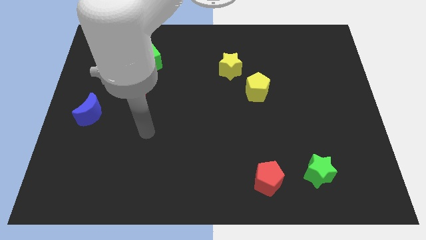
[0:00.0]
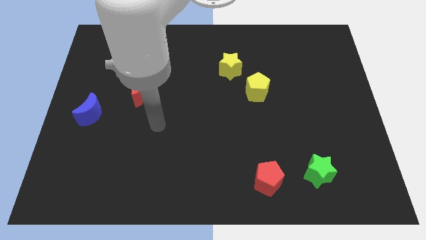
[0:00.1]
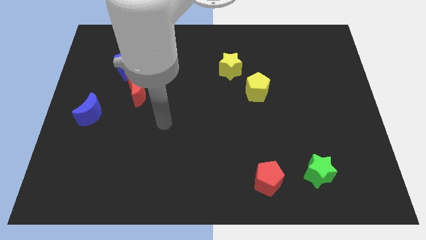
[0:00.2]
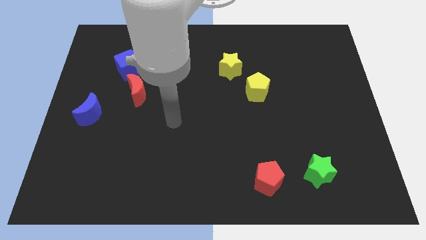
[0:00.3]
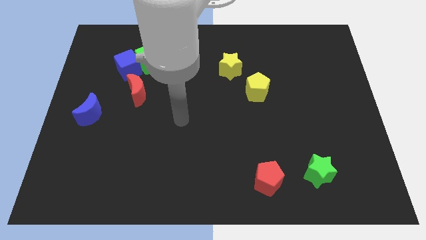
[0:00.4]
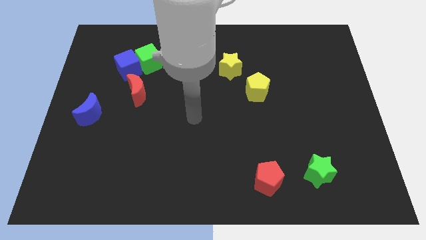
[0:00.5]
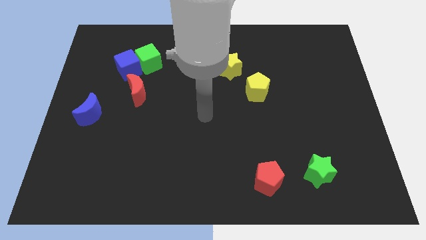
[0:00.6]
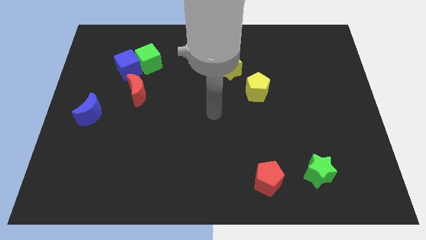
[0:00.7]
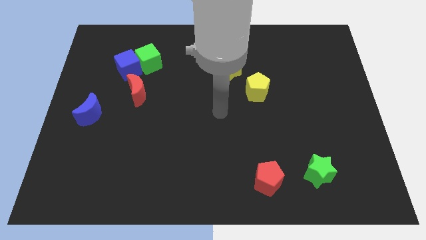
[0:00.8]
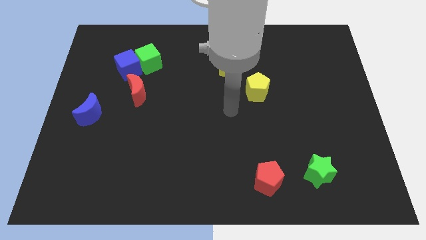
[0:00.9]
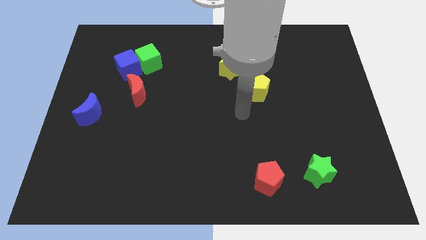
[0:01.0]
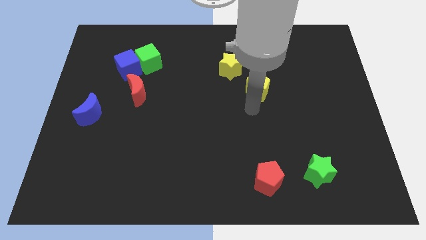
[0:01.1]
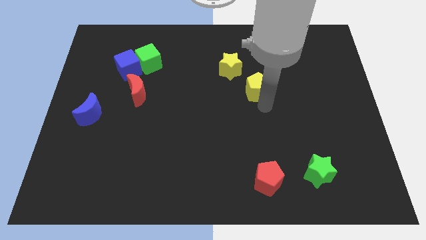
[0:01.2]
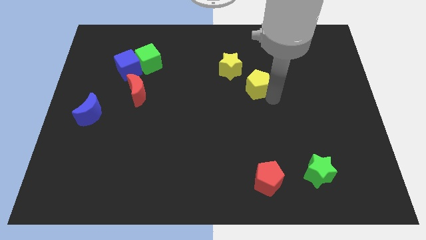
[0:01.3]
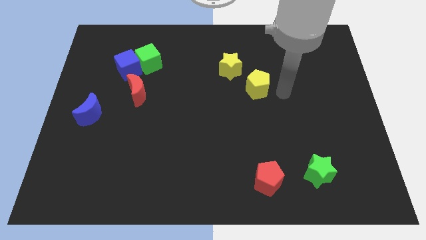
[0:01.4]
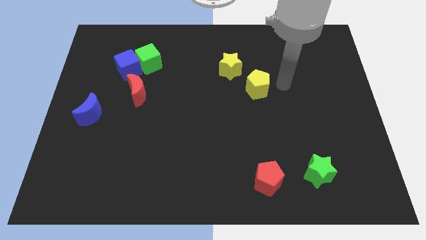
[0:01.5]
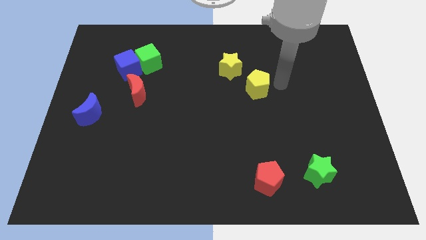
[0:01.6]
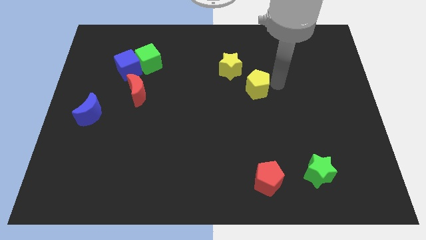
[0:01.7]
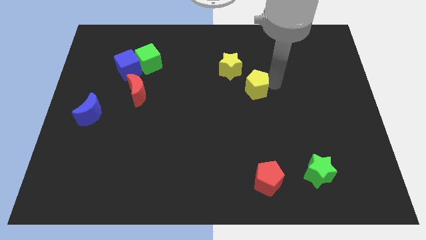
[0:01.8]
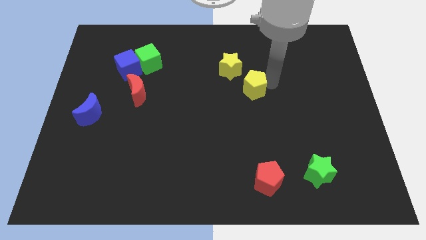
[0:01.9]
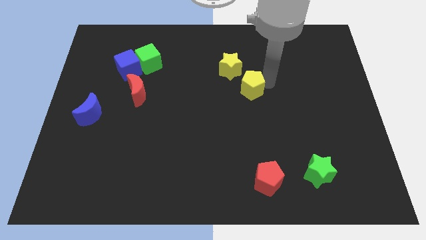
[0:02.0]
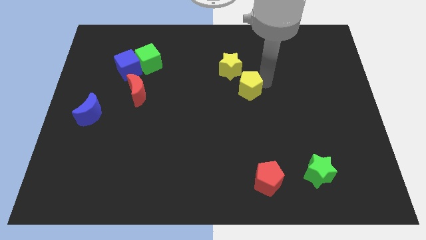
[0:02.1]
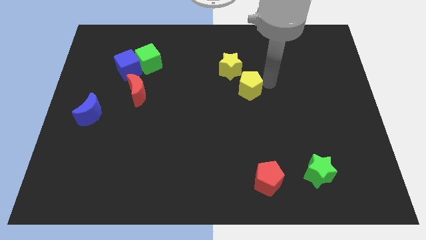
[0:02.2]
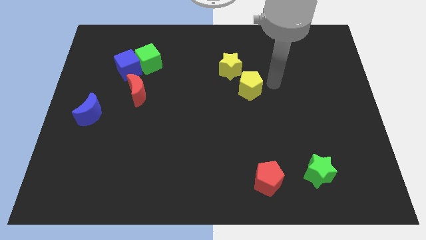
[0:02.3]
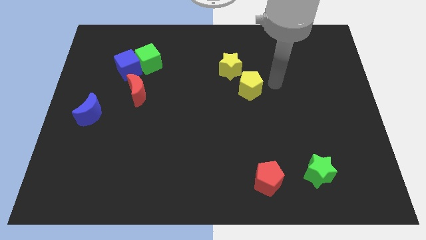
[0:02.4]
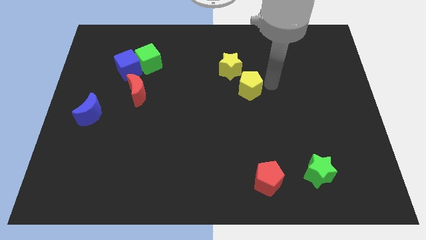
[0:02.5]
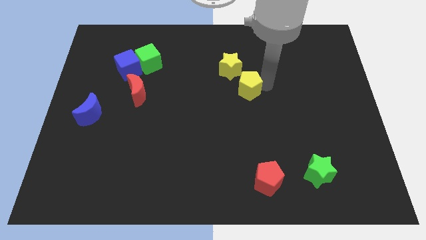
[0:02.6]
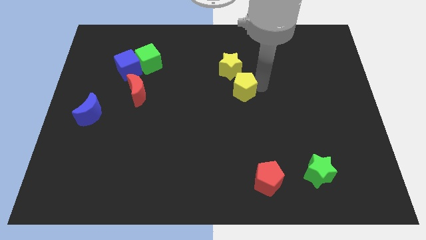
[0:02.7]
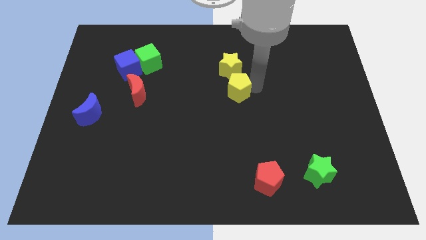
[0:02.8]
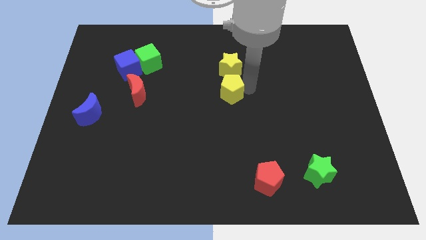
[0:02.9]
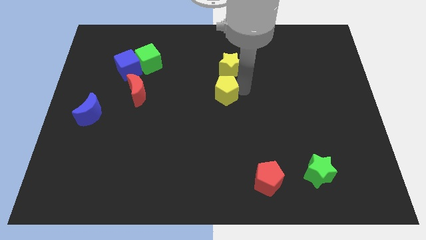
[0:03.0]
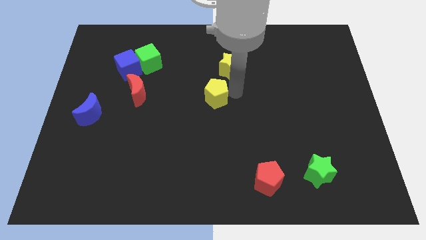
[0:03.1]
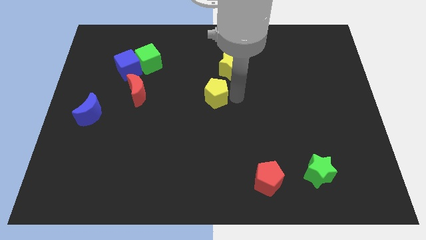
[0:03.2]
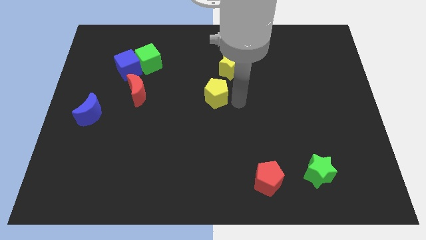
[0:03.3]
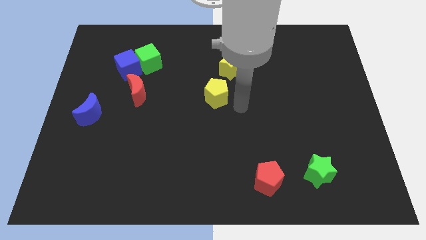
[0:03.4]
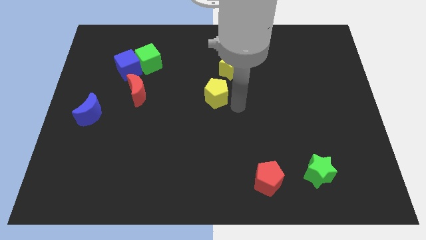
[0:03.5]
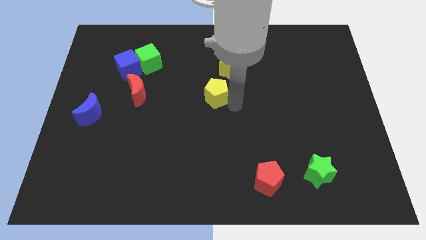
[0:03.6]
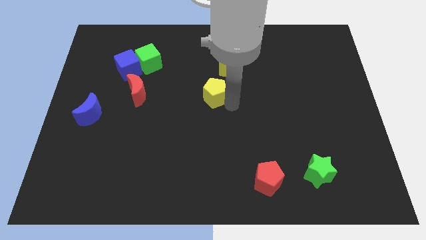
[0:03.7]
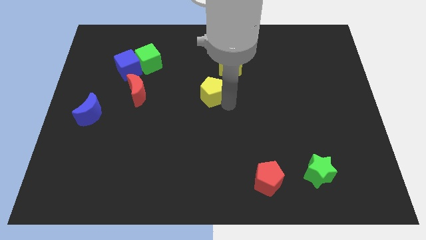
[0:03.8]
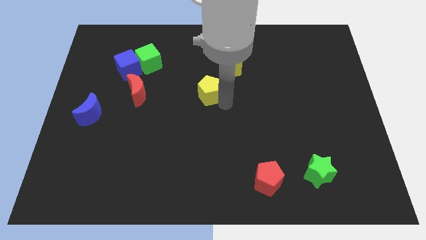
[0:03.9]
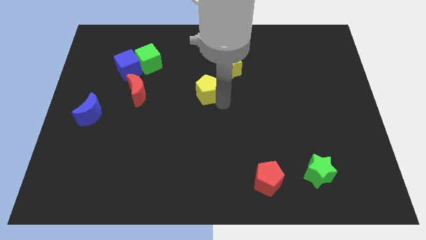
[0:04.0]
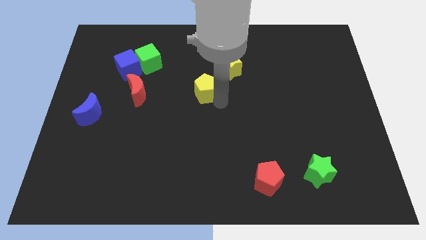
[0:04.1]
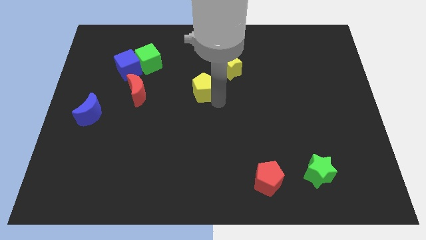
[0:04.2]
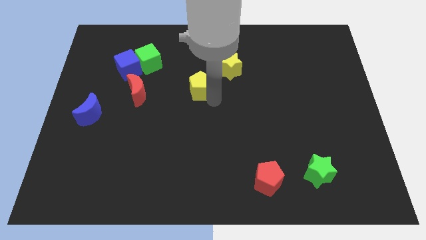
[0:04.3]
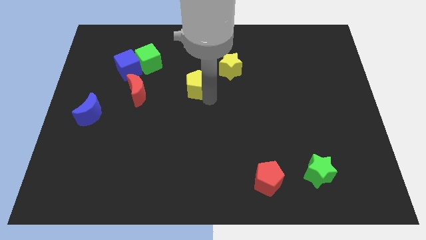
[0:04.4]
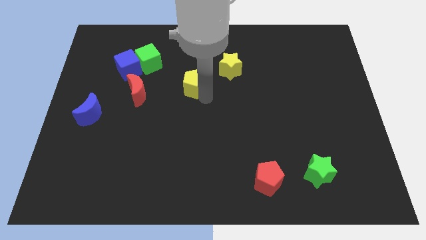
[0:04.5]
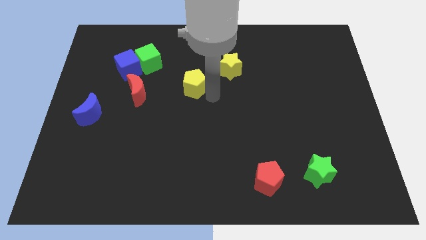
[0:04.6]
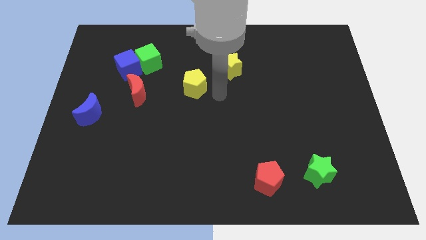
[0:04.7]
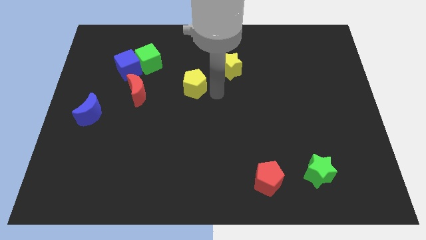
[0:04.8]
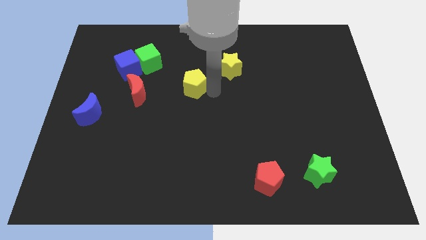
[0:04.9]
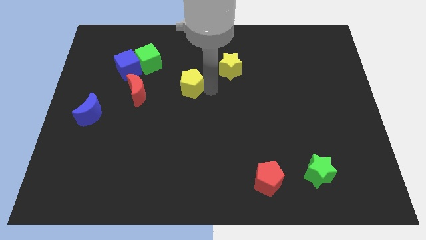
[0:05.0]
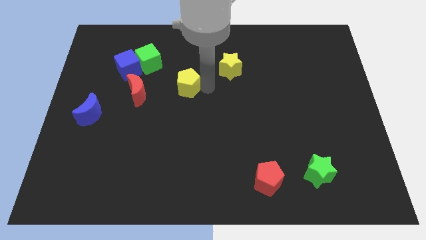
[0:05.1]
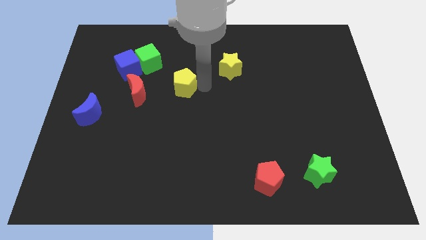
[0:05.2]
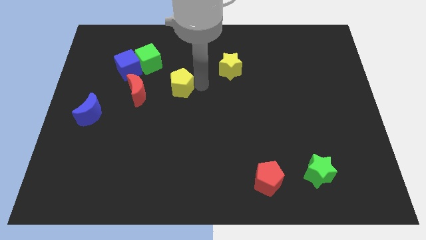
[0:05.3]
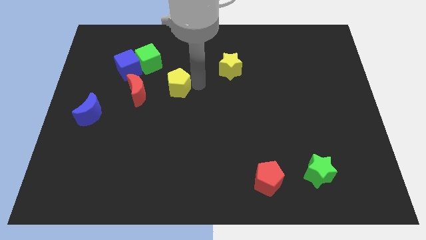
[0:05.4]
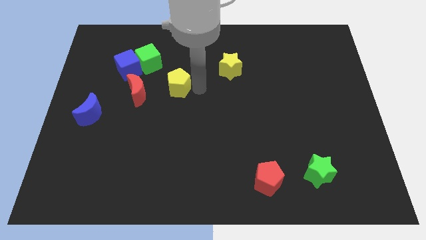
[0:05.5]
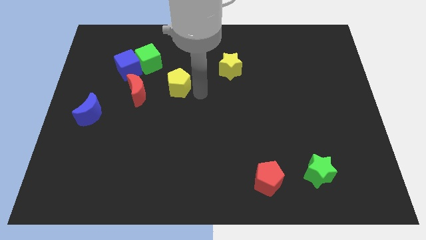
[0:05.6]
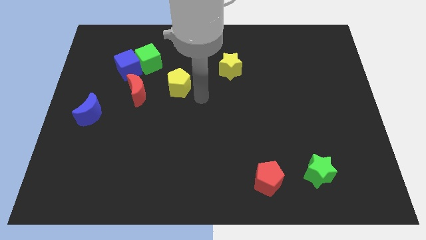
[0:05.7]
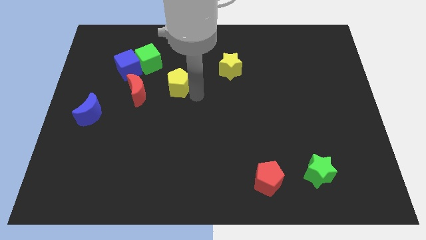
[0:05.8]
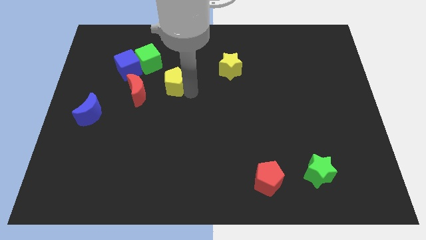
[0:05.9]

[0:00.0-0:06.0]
slide the yellow pentagon diagonally up and to the right of the red moon

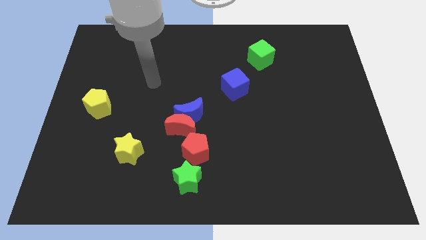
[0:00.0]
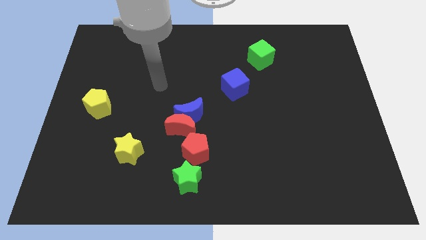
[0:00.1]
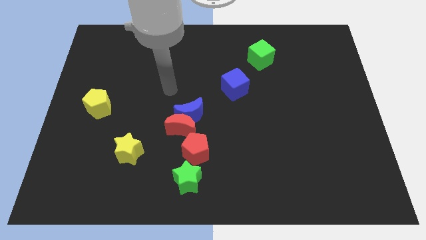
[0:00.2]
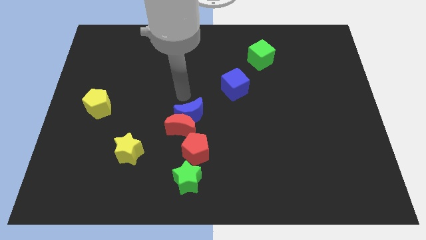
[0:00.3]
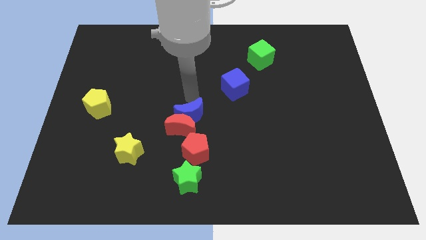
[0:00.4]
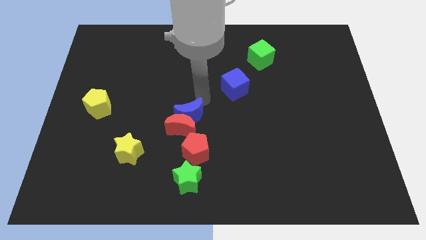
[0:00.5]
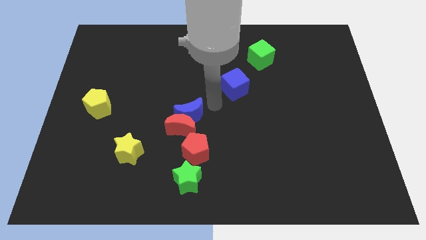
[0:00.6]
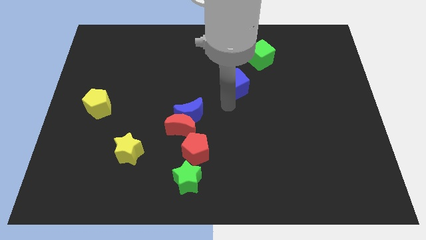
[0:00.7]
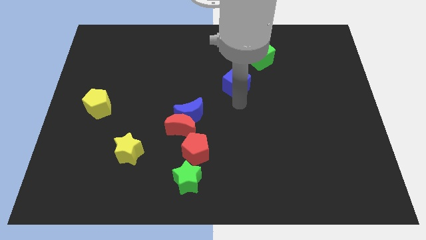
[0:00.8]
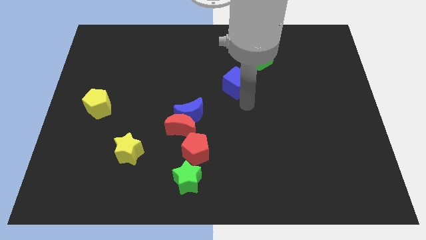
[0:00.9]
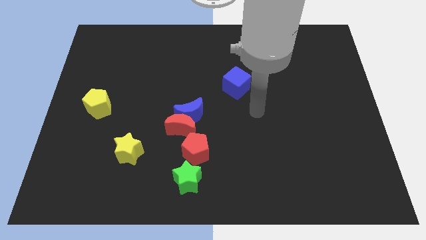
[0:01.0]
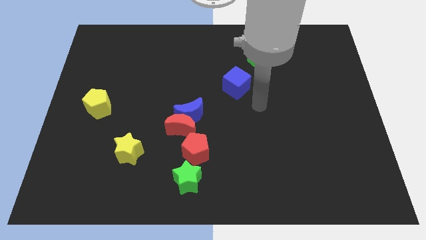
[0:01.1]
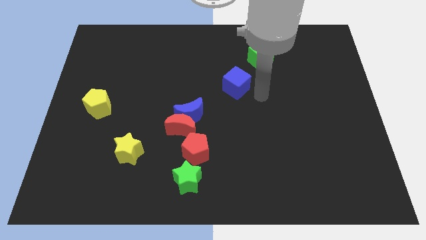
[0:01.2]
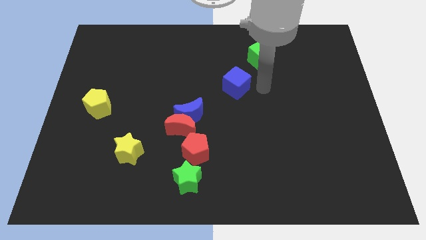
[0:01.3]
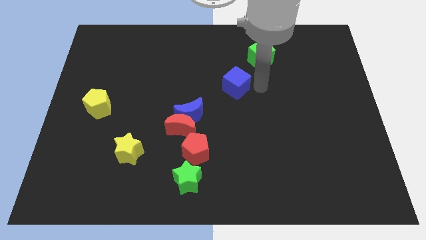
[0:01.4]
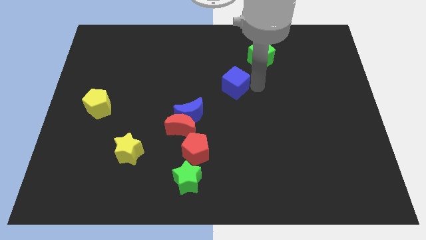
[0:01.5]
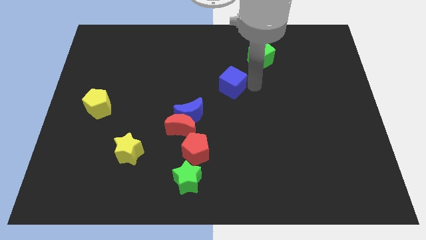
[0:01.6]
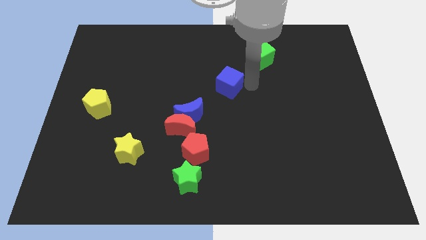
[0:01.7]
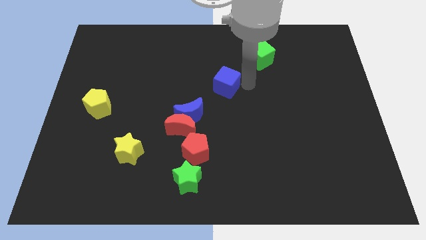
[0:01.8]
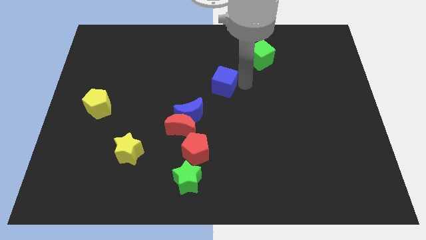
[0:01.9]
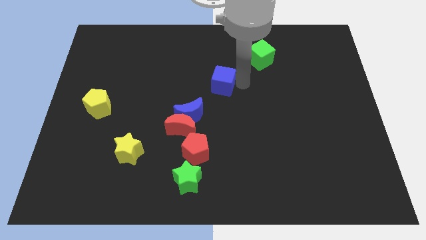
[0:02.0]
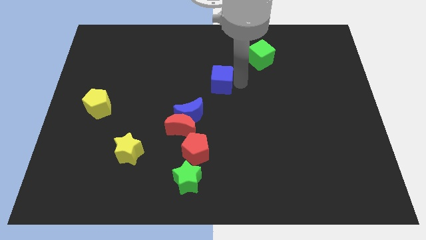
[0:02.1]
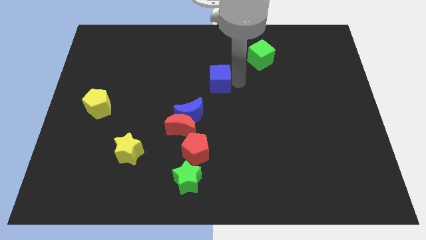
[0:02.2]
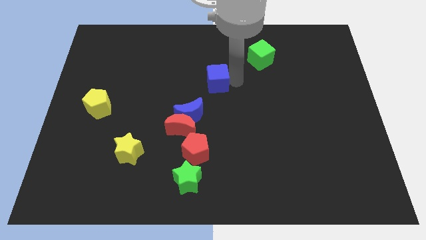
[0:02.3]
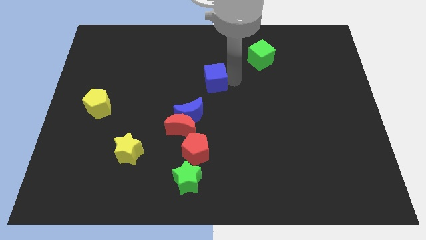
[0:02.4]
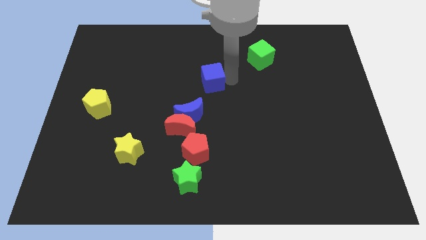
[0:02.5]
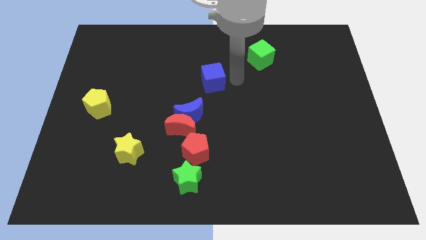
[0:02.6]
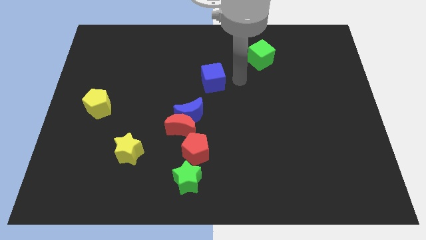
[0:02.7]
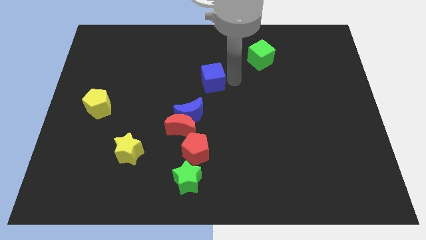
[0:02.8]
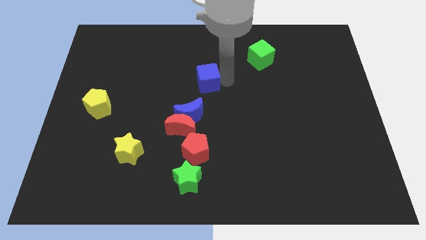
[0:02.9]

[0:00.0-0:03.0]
slide the blue cube above the blue moon
